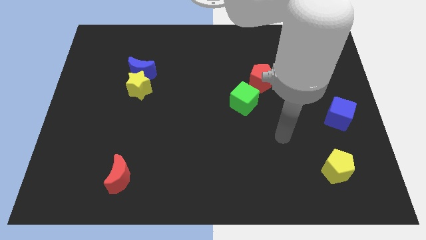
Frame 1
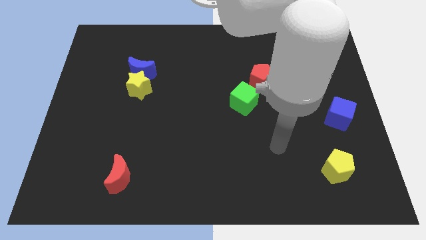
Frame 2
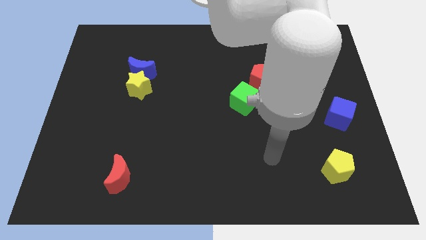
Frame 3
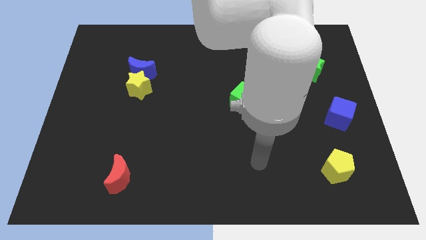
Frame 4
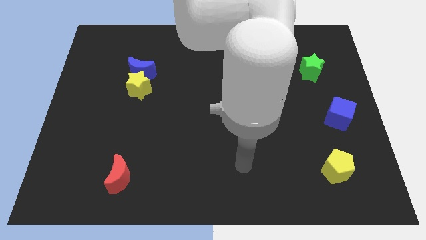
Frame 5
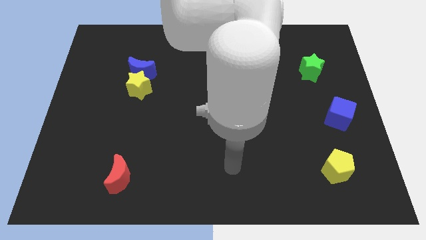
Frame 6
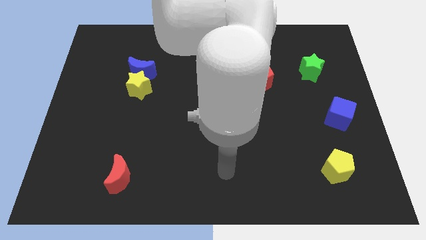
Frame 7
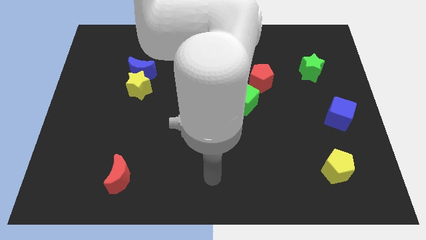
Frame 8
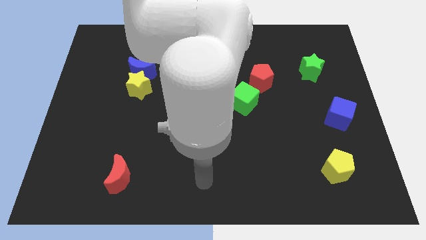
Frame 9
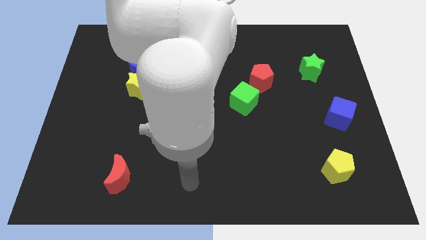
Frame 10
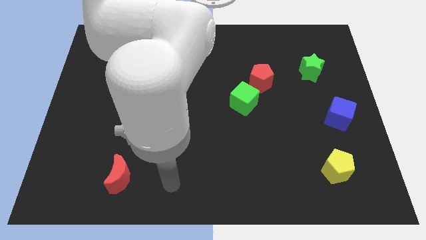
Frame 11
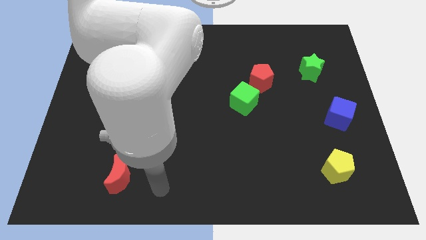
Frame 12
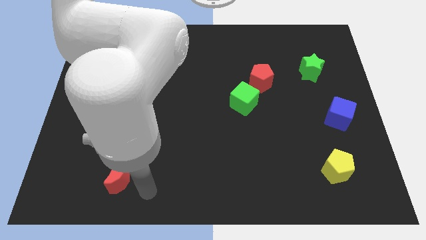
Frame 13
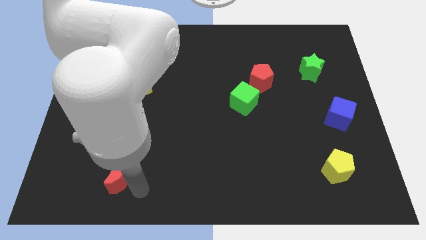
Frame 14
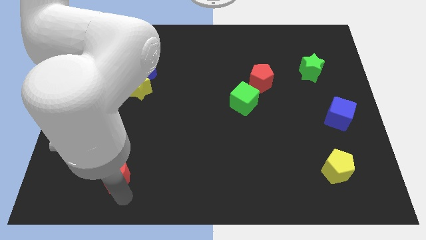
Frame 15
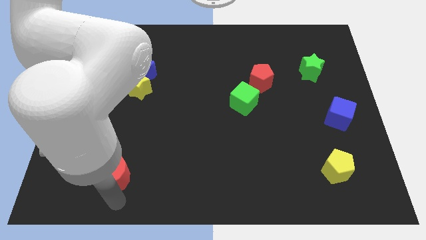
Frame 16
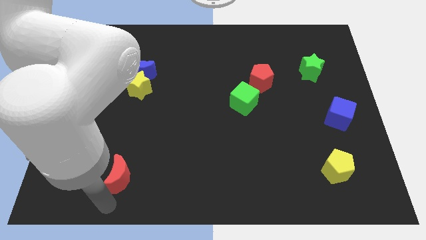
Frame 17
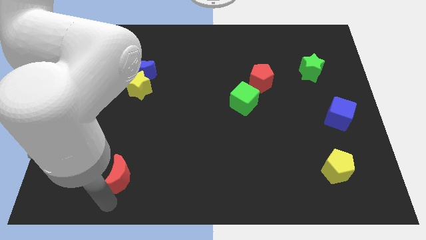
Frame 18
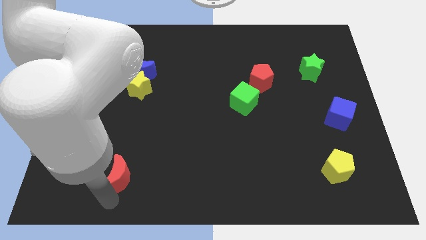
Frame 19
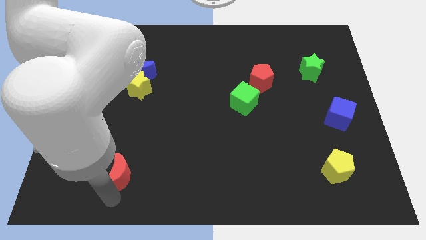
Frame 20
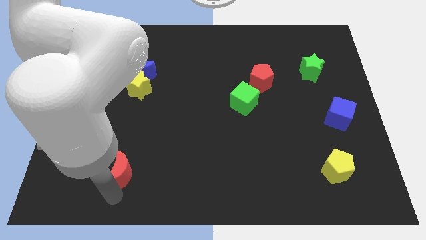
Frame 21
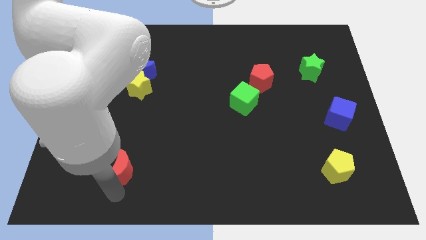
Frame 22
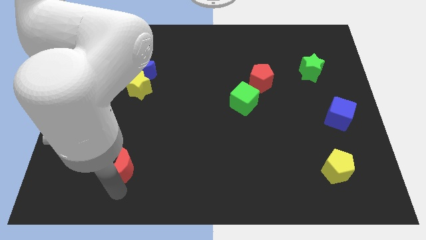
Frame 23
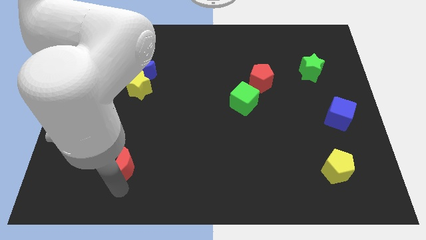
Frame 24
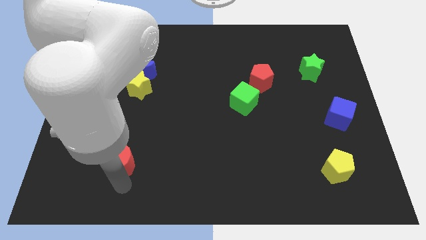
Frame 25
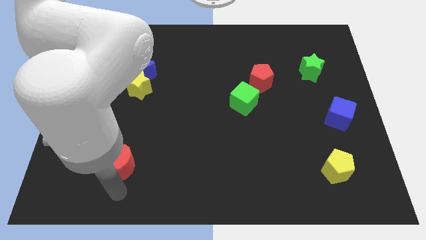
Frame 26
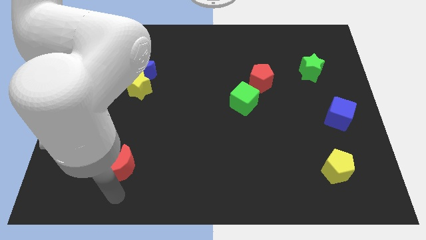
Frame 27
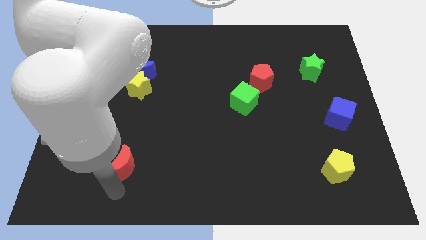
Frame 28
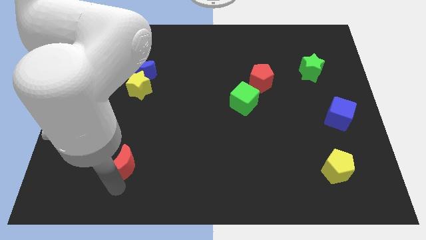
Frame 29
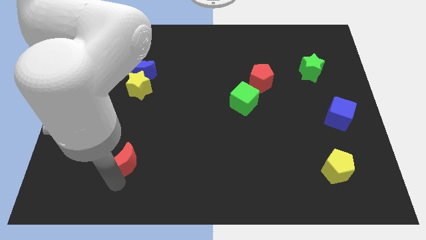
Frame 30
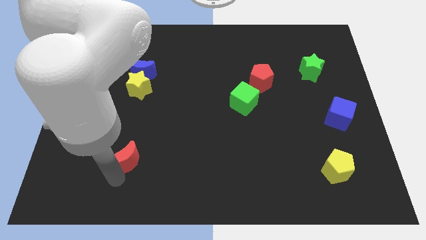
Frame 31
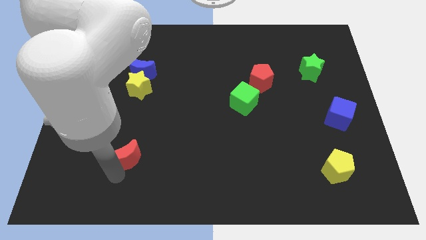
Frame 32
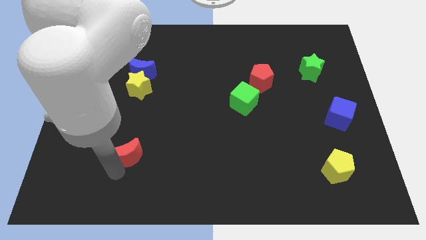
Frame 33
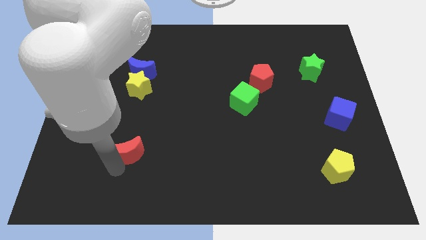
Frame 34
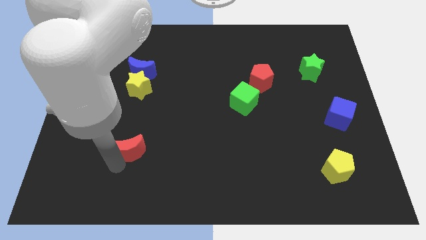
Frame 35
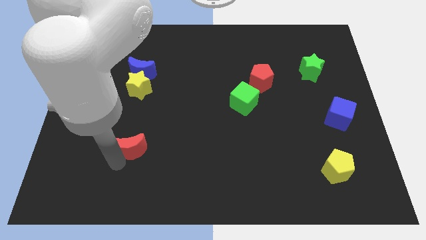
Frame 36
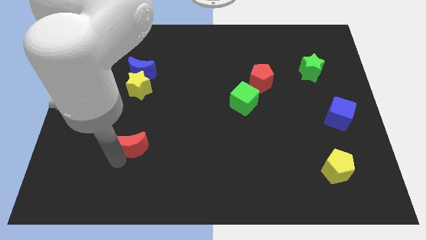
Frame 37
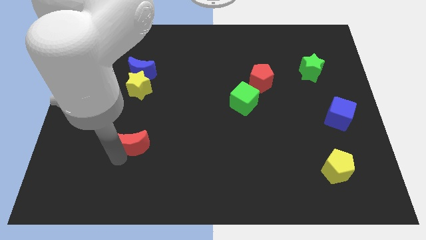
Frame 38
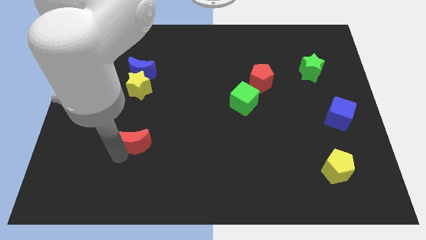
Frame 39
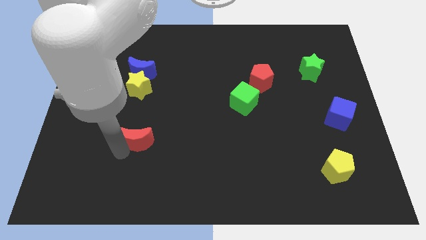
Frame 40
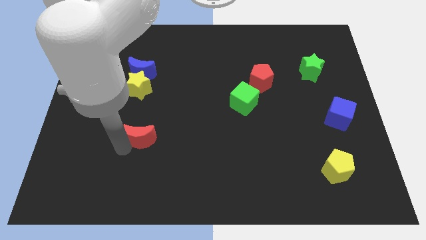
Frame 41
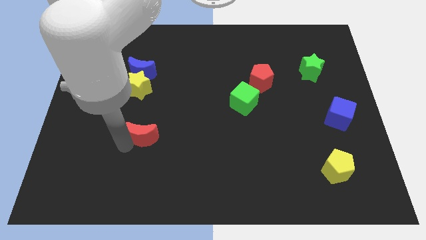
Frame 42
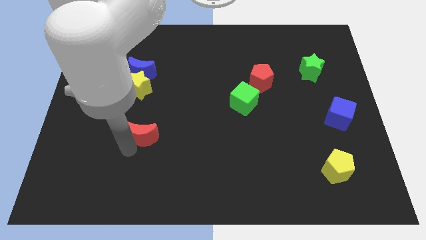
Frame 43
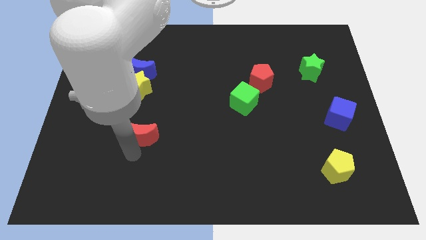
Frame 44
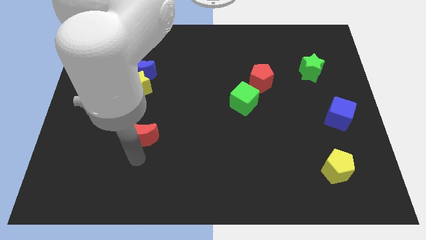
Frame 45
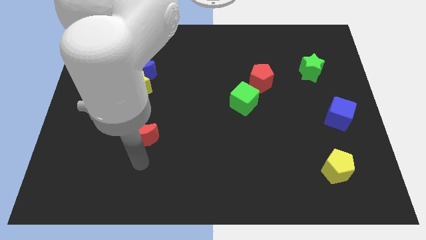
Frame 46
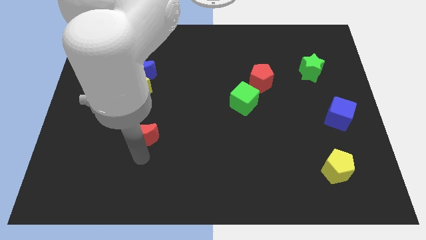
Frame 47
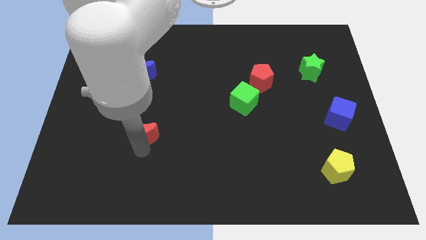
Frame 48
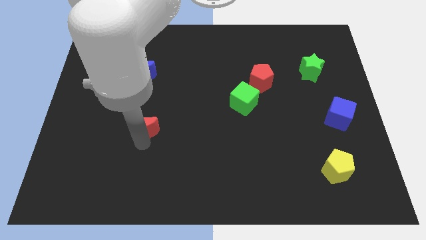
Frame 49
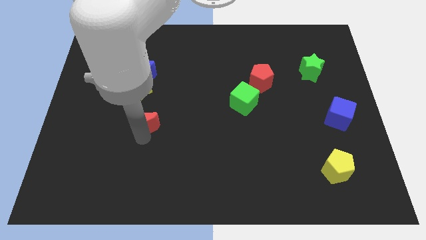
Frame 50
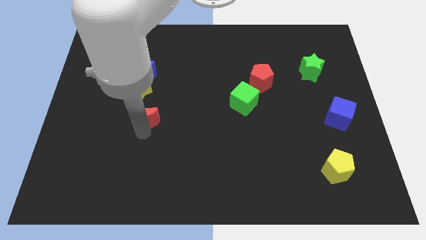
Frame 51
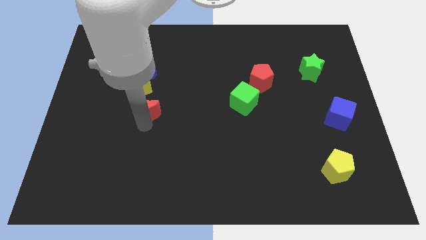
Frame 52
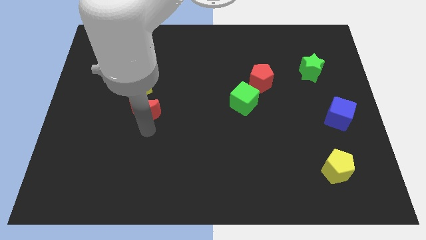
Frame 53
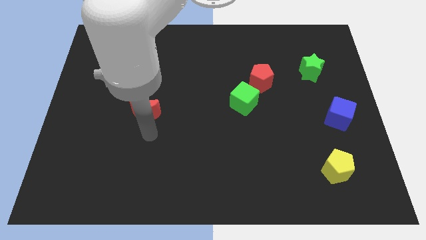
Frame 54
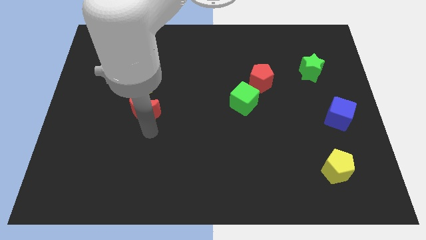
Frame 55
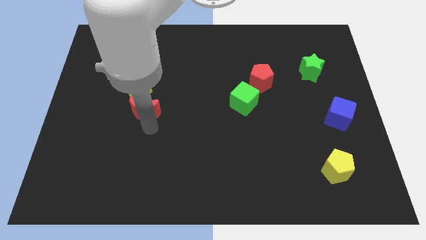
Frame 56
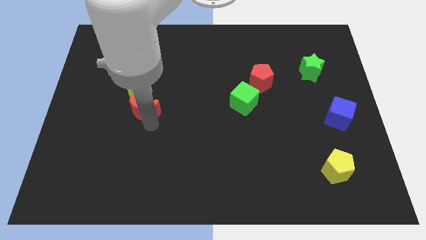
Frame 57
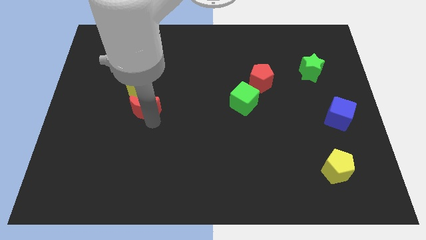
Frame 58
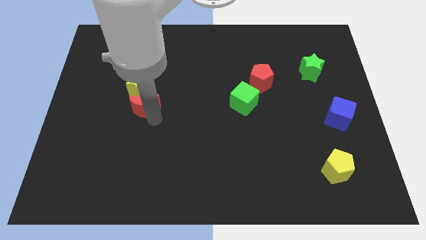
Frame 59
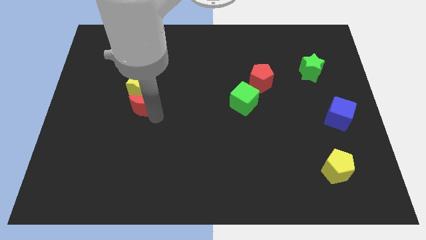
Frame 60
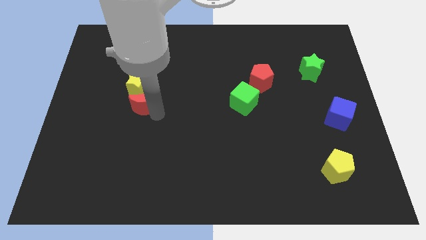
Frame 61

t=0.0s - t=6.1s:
push the red moon close to the yellow star

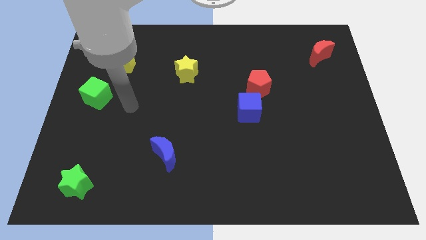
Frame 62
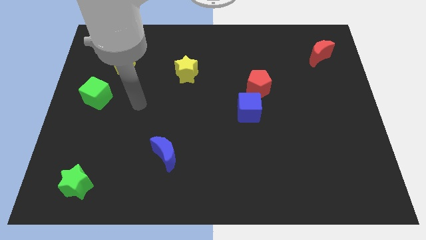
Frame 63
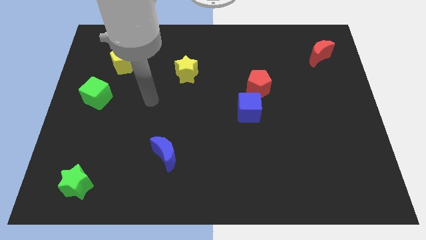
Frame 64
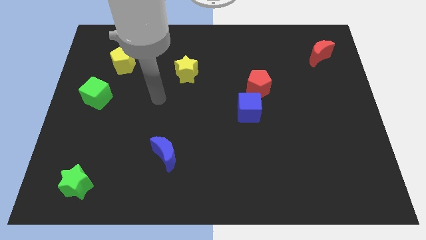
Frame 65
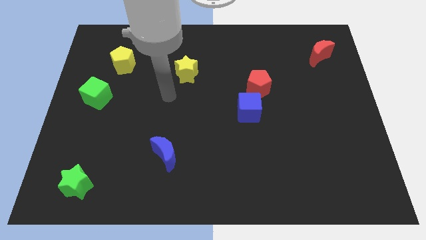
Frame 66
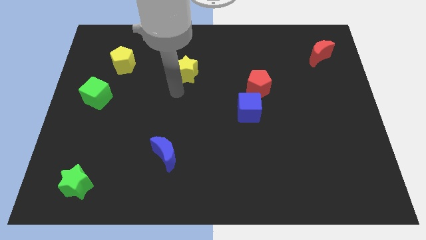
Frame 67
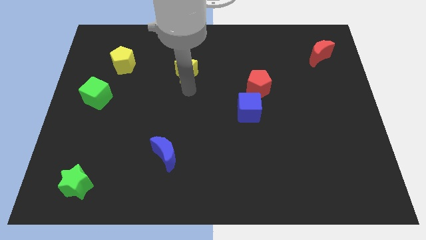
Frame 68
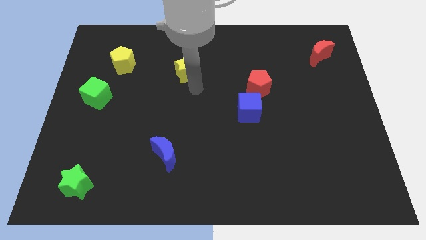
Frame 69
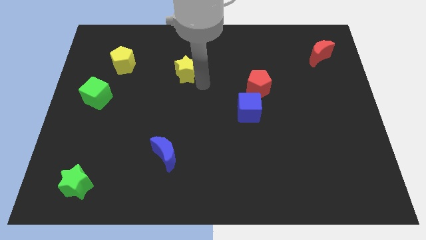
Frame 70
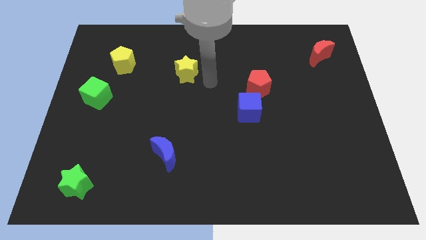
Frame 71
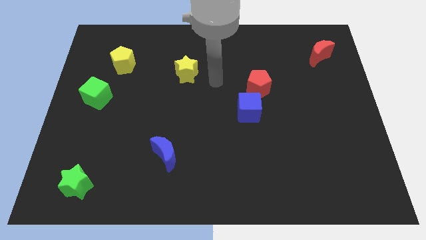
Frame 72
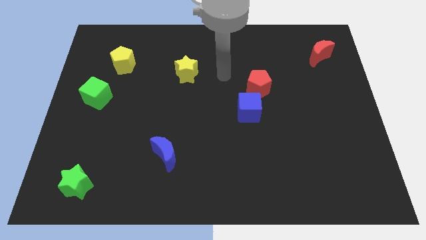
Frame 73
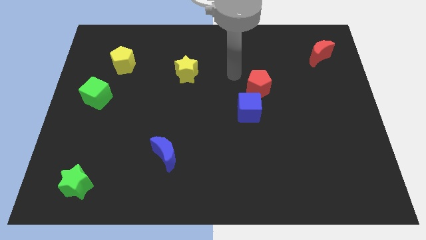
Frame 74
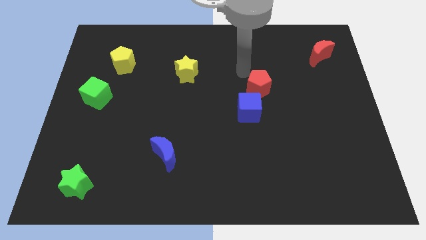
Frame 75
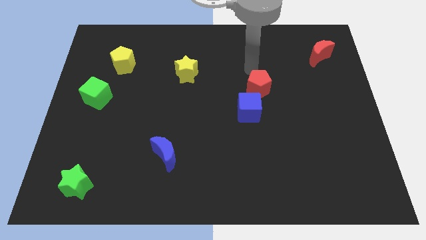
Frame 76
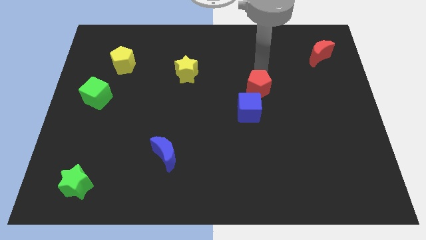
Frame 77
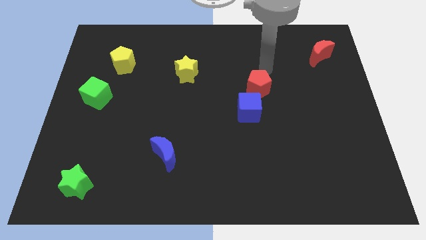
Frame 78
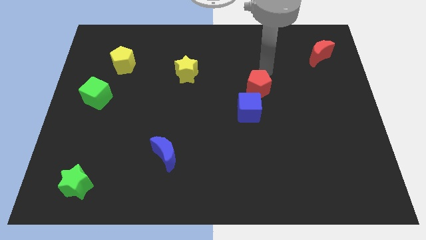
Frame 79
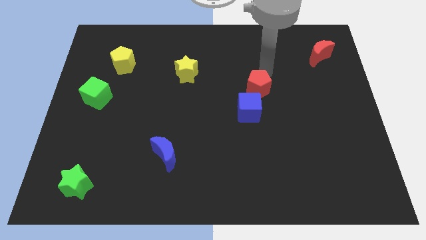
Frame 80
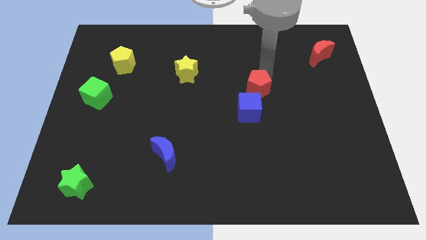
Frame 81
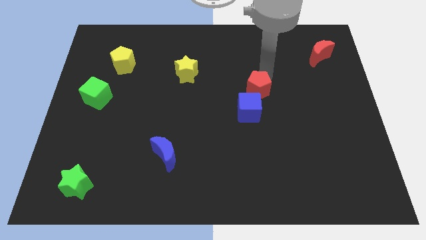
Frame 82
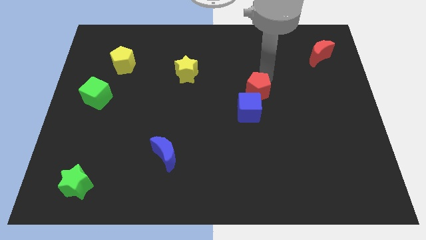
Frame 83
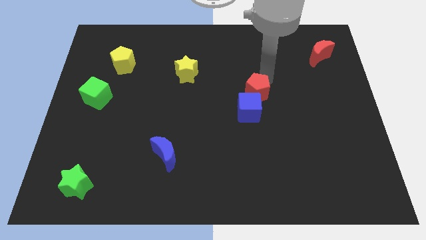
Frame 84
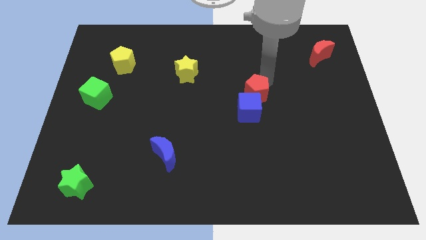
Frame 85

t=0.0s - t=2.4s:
move the red pentagon to the blue cube
